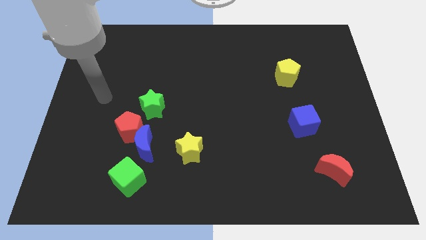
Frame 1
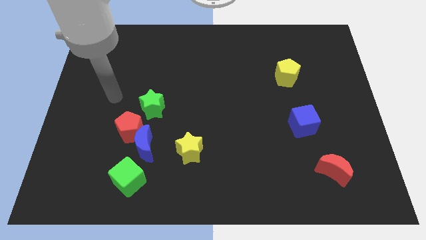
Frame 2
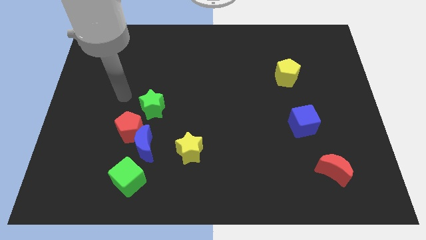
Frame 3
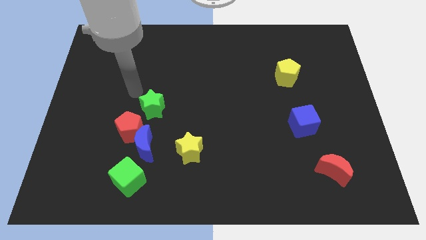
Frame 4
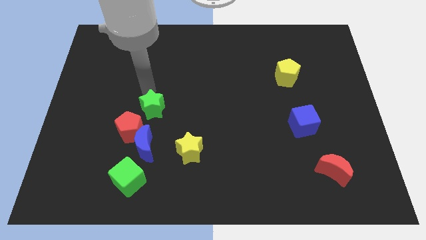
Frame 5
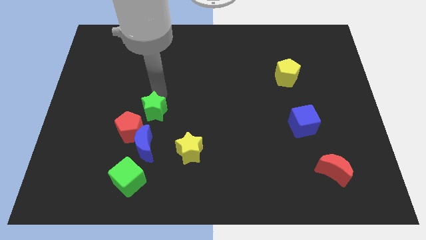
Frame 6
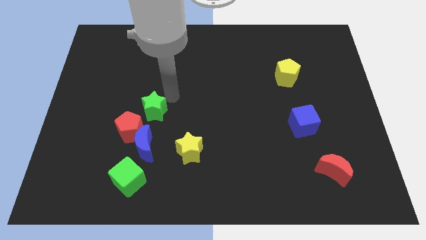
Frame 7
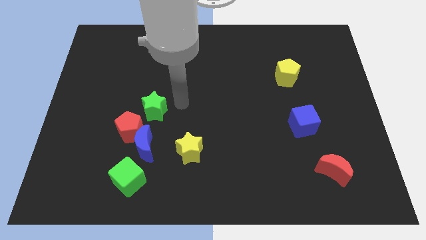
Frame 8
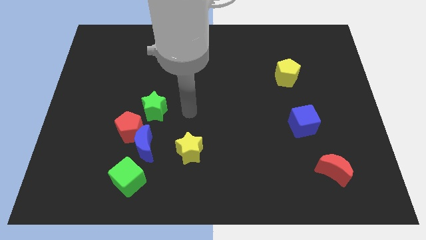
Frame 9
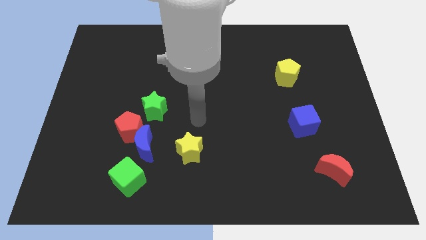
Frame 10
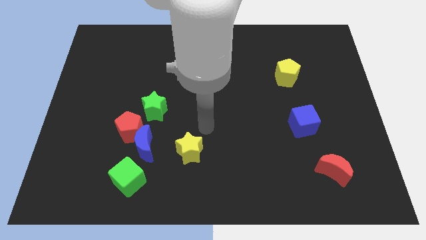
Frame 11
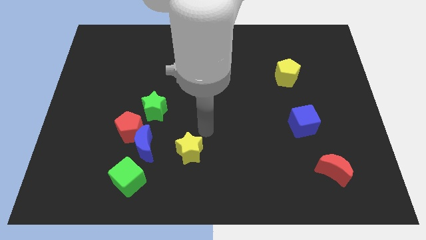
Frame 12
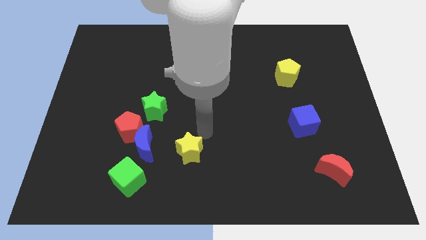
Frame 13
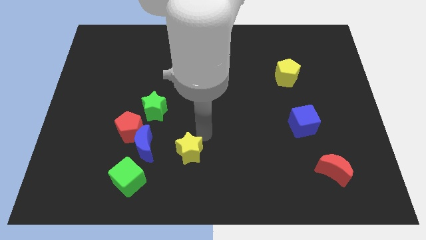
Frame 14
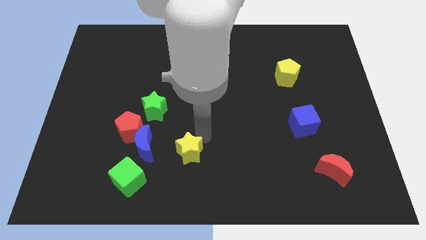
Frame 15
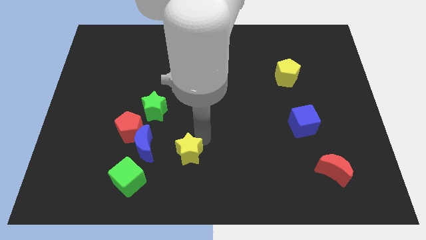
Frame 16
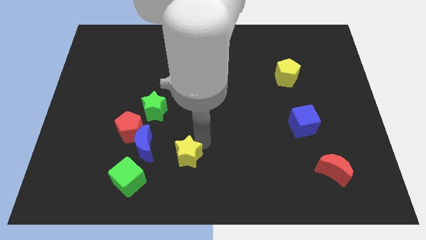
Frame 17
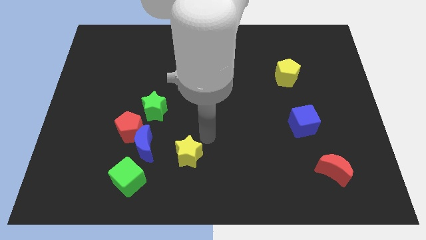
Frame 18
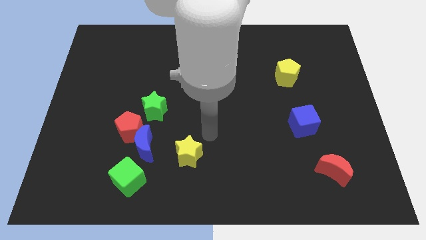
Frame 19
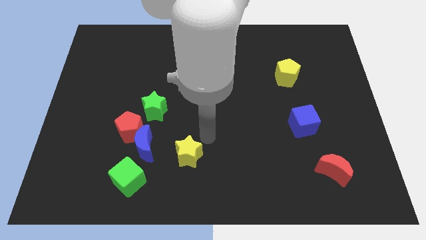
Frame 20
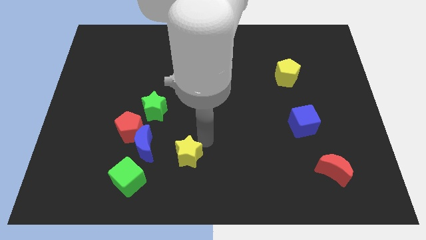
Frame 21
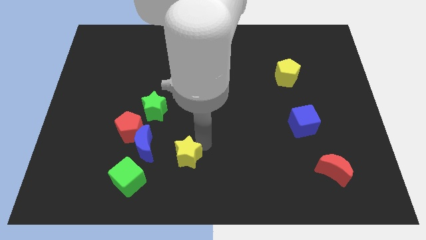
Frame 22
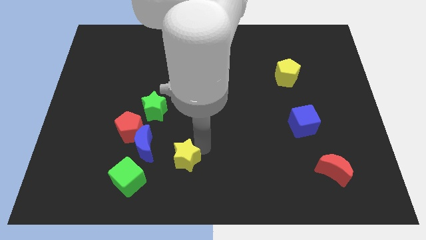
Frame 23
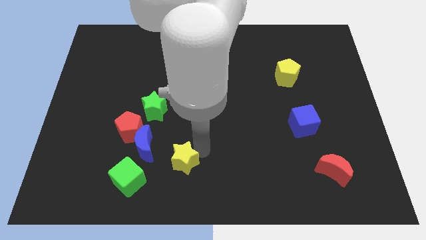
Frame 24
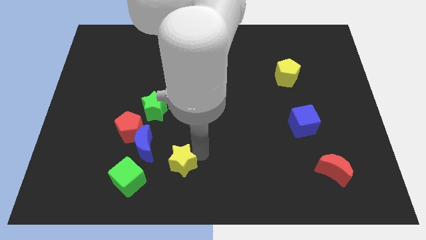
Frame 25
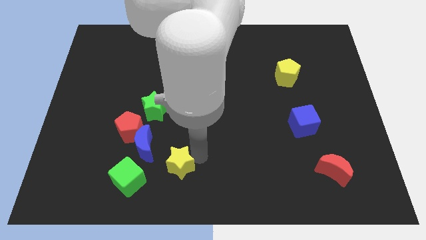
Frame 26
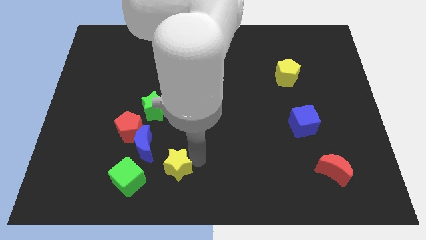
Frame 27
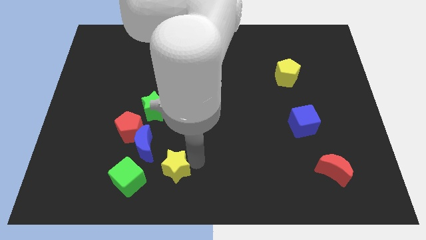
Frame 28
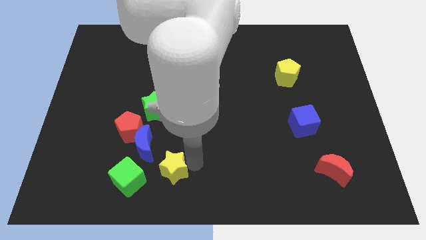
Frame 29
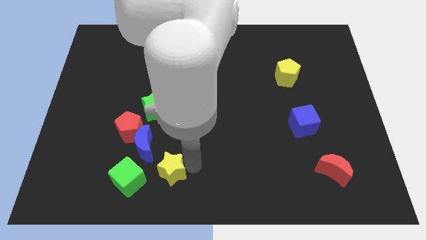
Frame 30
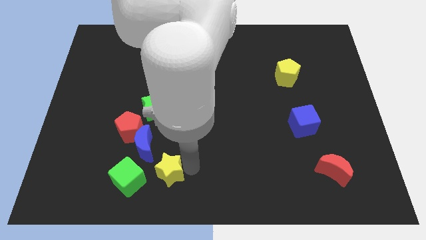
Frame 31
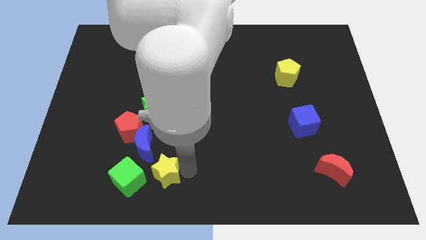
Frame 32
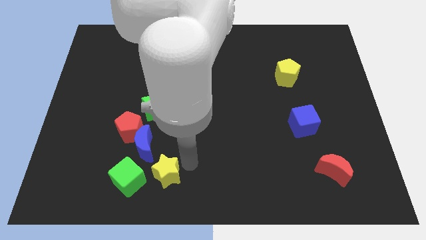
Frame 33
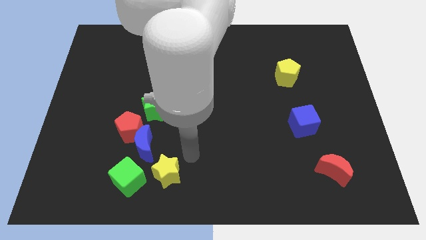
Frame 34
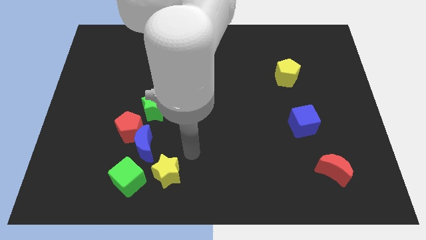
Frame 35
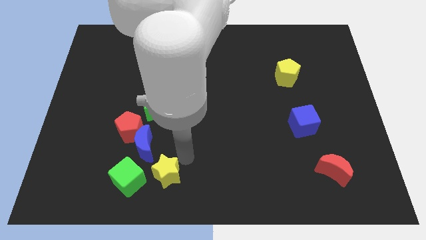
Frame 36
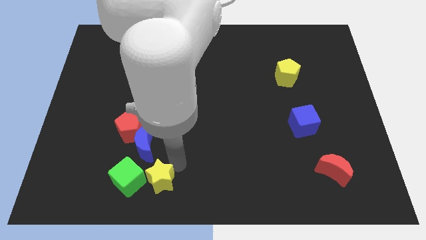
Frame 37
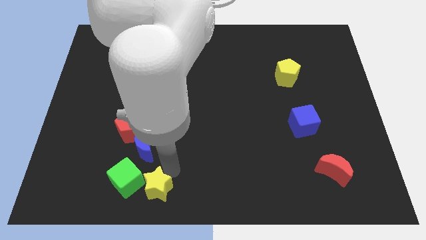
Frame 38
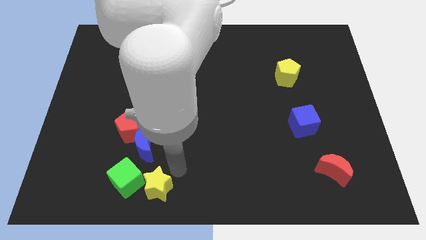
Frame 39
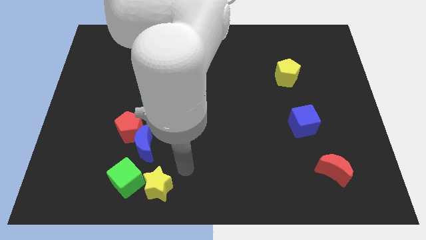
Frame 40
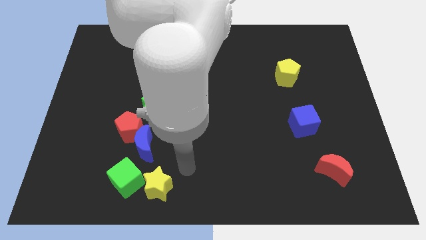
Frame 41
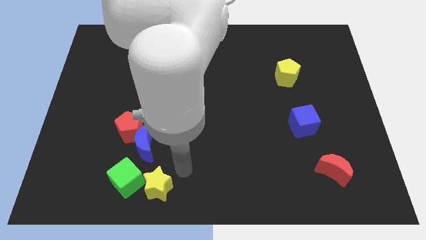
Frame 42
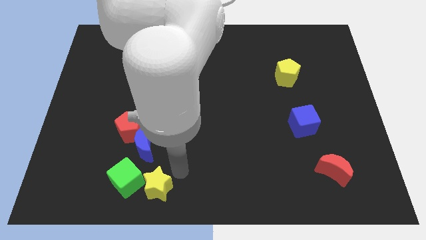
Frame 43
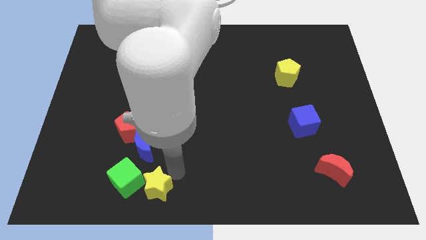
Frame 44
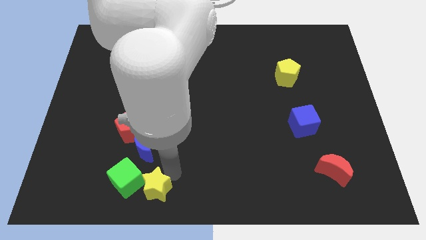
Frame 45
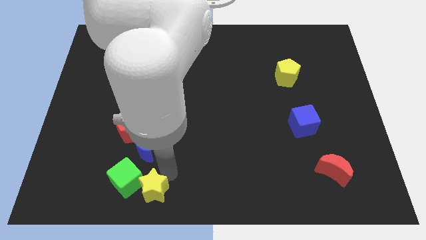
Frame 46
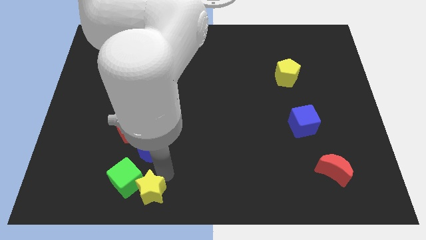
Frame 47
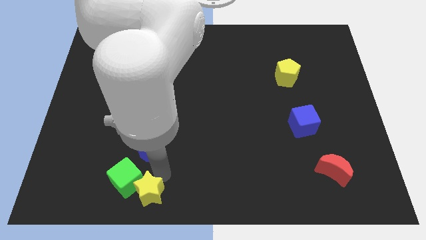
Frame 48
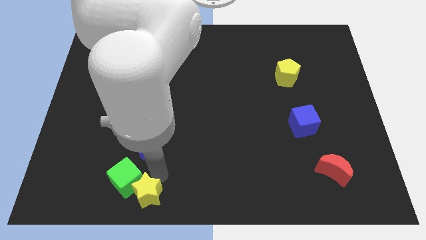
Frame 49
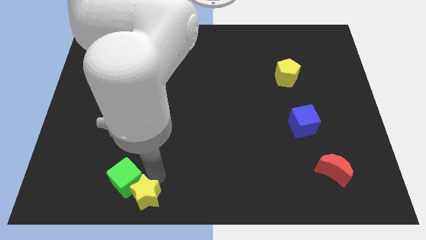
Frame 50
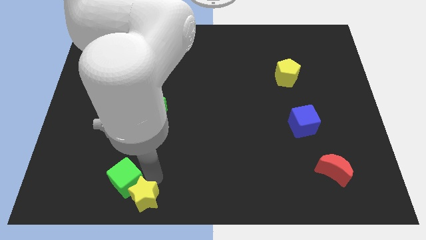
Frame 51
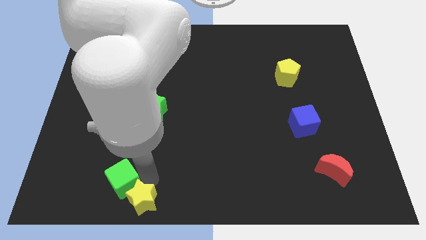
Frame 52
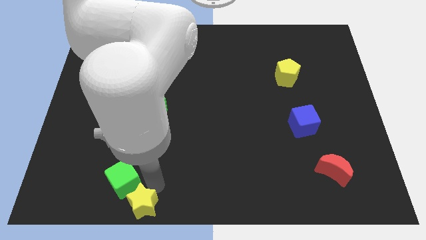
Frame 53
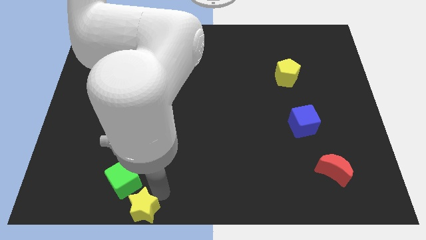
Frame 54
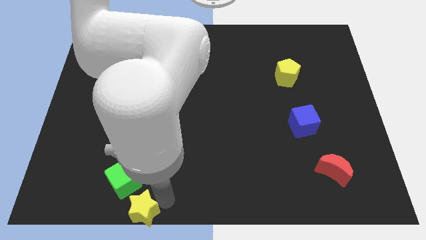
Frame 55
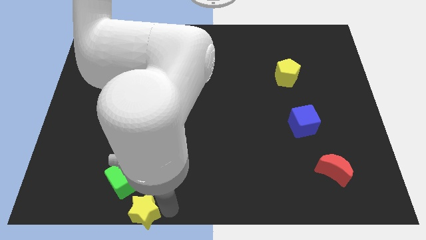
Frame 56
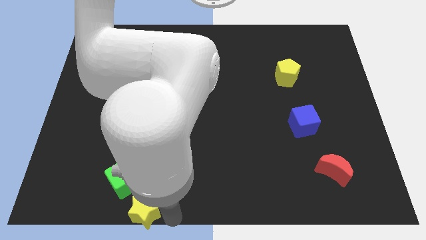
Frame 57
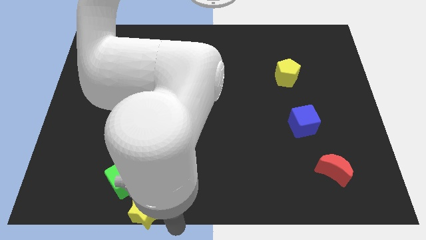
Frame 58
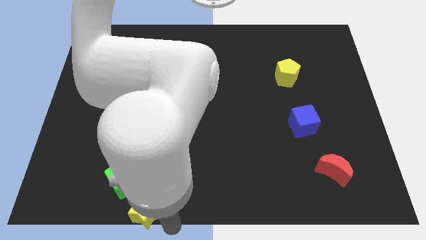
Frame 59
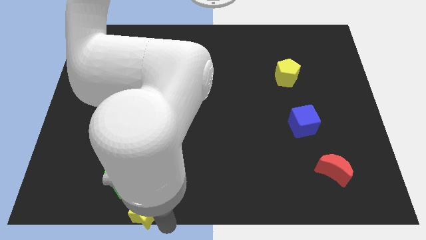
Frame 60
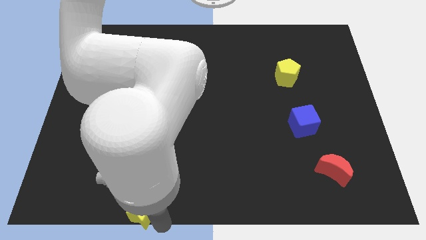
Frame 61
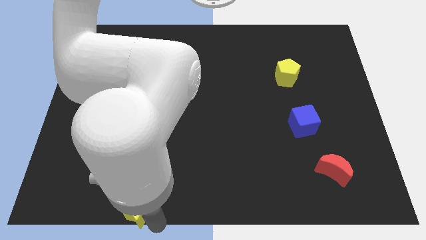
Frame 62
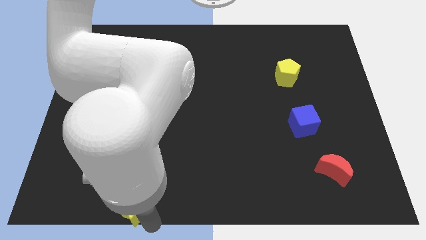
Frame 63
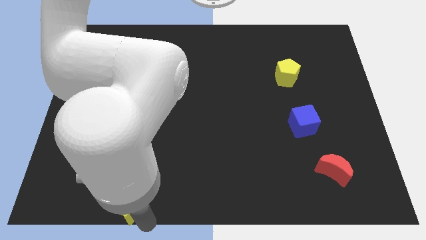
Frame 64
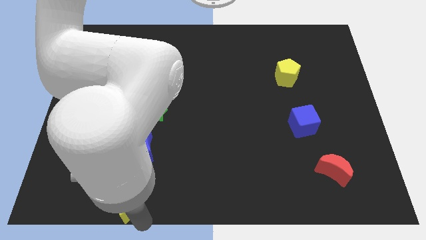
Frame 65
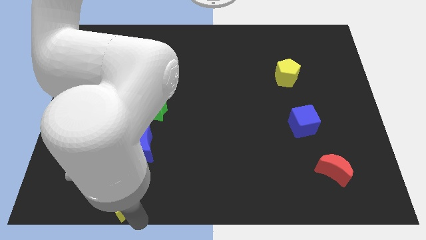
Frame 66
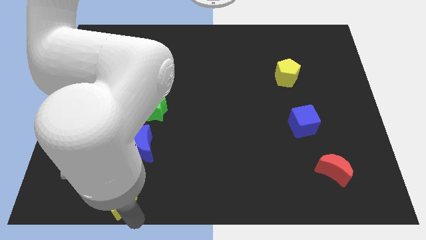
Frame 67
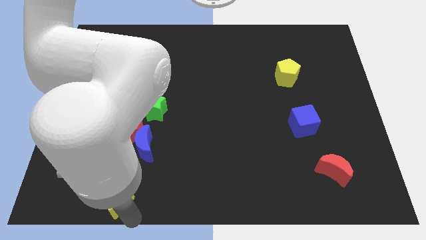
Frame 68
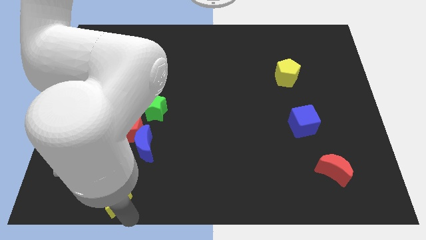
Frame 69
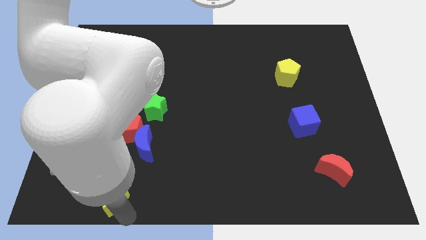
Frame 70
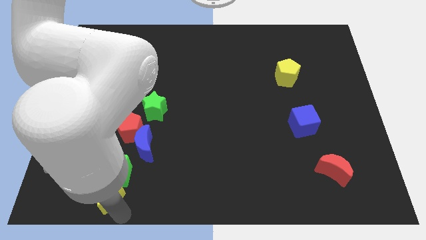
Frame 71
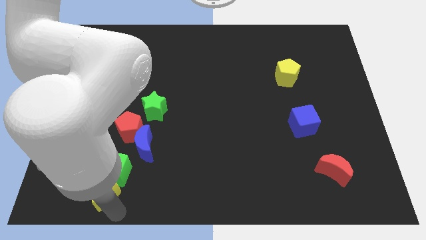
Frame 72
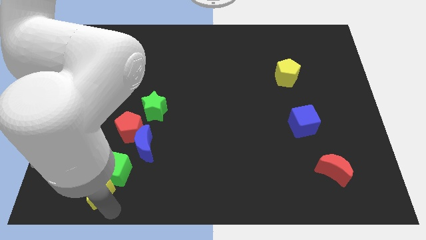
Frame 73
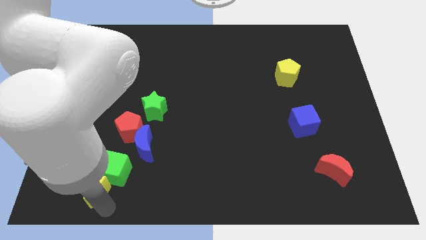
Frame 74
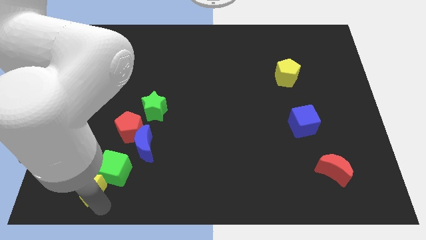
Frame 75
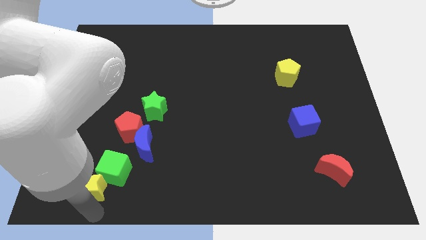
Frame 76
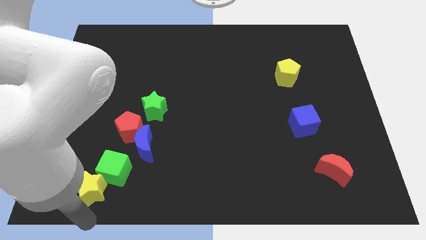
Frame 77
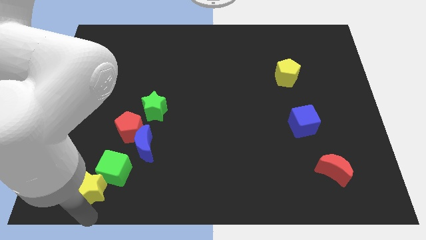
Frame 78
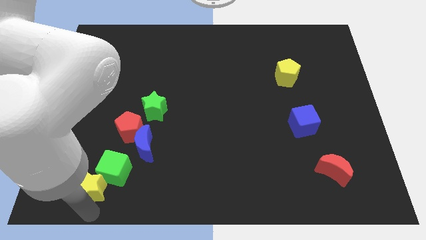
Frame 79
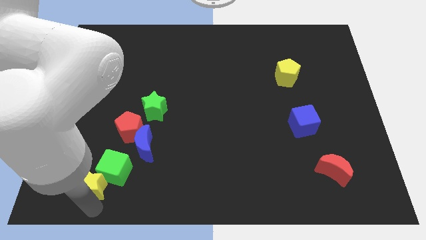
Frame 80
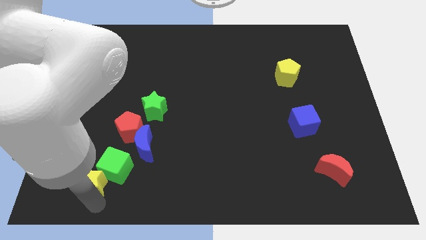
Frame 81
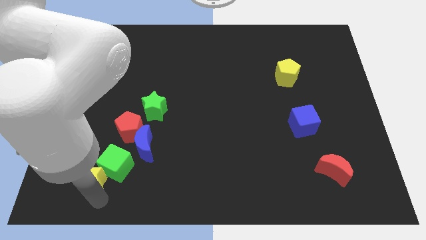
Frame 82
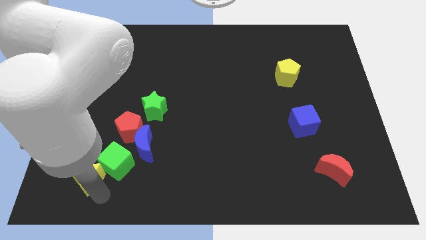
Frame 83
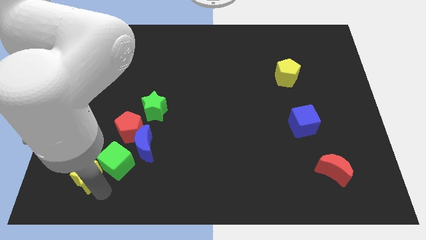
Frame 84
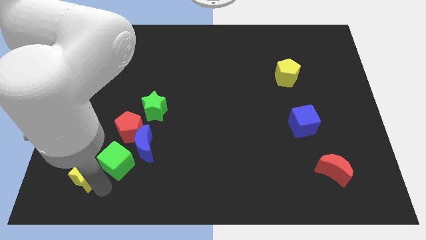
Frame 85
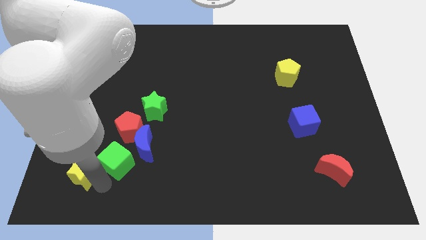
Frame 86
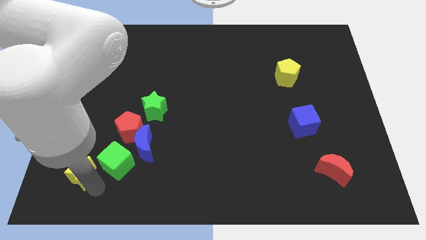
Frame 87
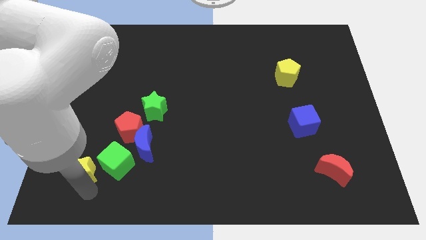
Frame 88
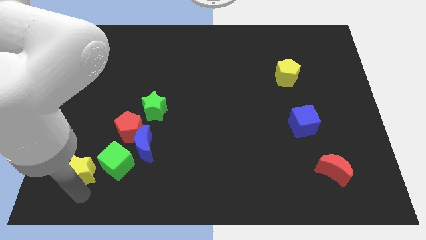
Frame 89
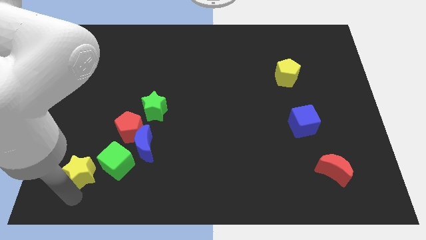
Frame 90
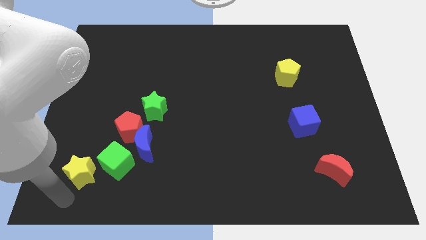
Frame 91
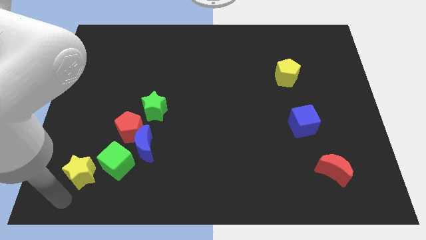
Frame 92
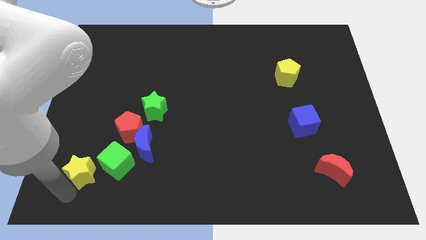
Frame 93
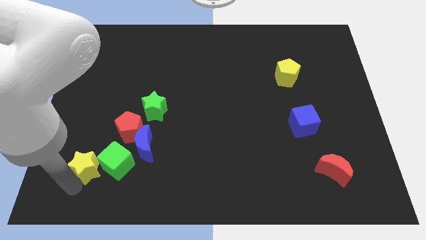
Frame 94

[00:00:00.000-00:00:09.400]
push the yellow star to the bottom left of the red pentagon
